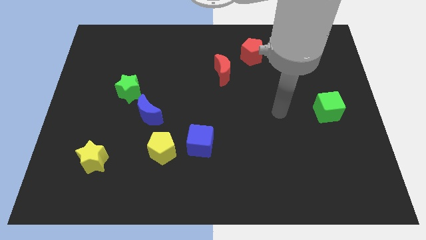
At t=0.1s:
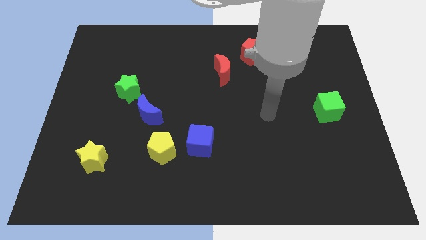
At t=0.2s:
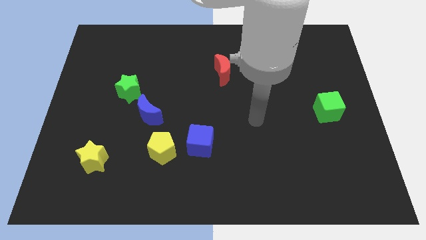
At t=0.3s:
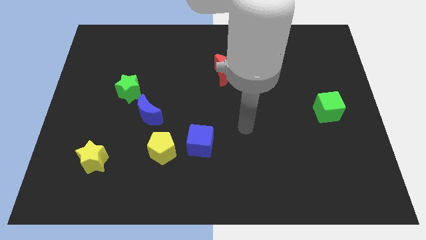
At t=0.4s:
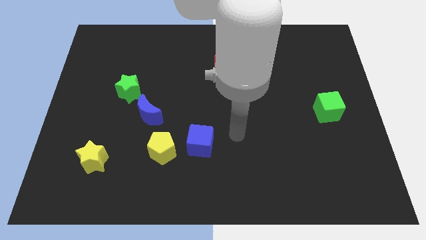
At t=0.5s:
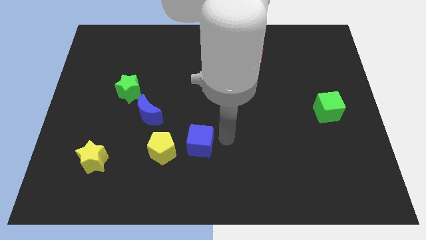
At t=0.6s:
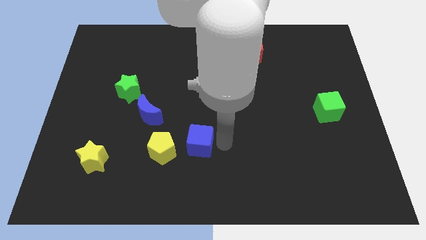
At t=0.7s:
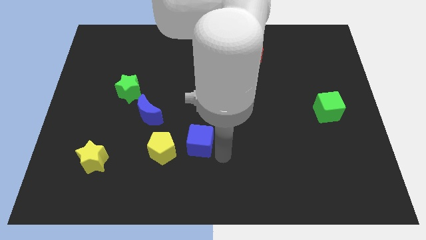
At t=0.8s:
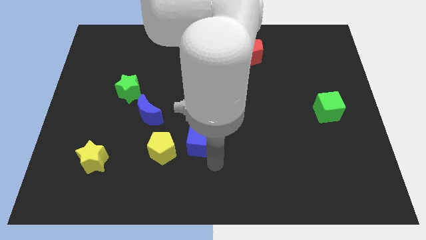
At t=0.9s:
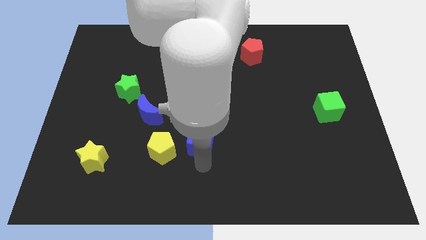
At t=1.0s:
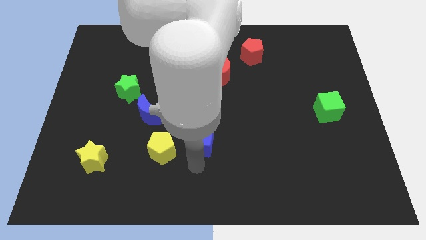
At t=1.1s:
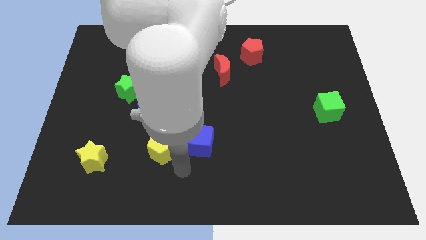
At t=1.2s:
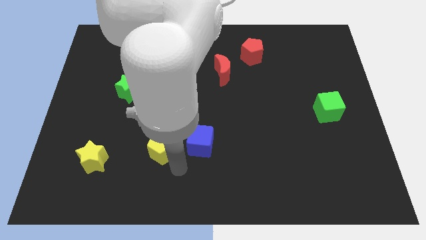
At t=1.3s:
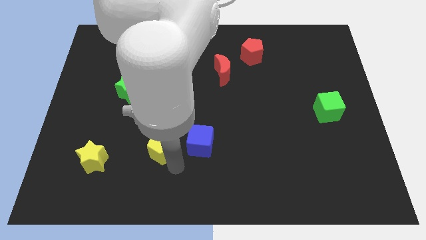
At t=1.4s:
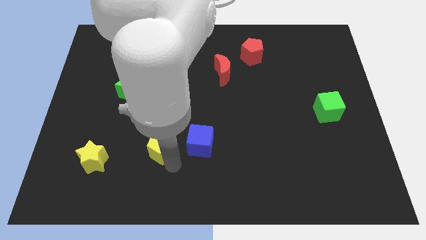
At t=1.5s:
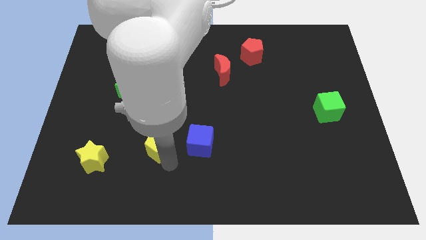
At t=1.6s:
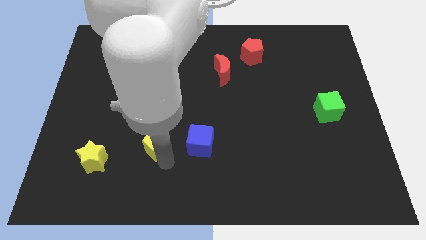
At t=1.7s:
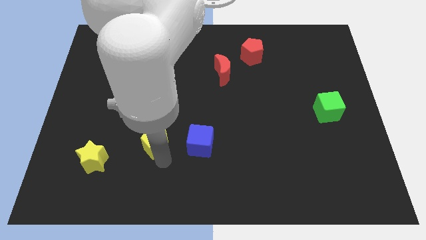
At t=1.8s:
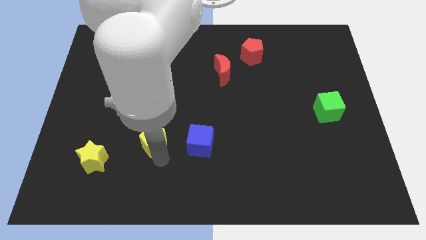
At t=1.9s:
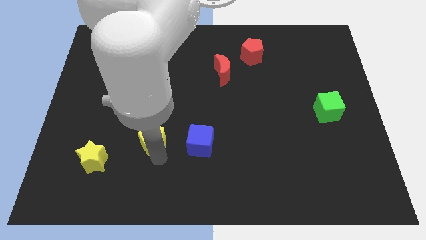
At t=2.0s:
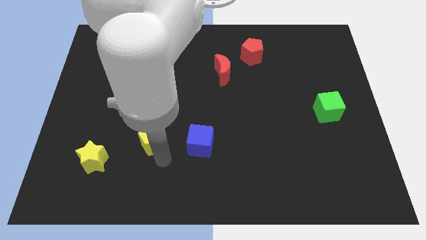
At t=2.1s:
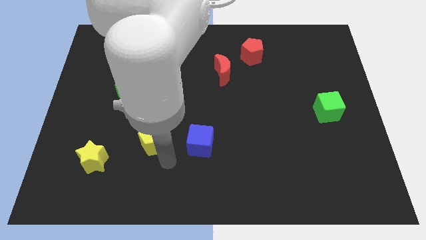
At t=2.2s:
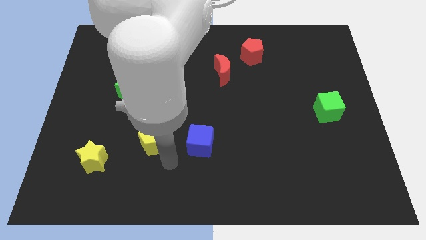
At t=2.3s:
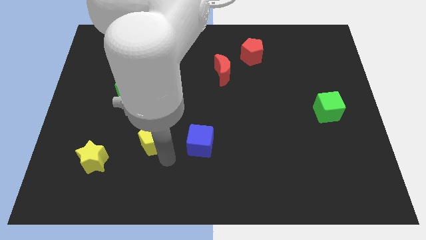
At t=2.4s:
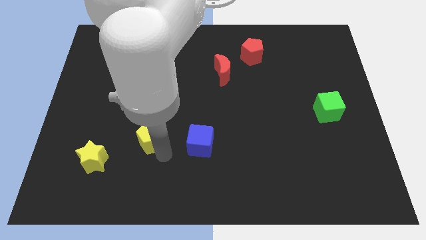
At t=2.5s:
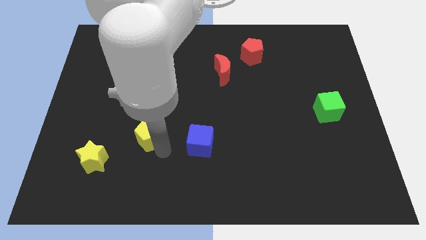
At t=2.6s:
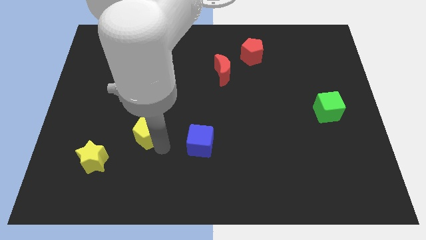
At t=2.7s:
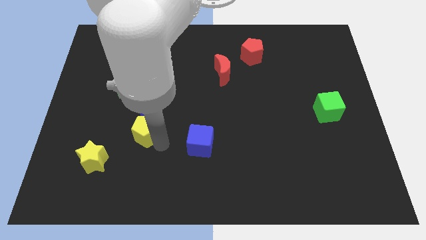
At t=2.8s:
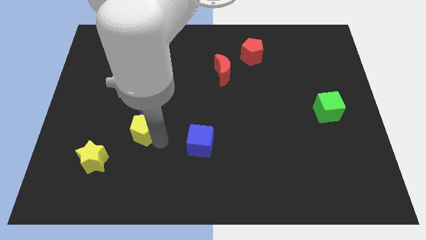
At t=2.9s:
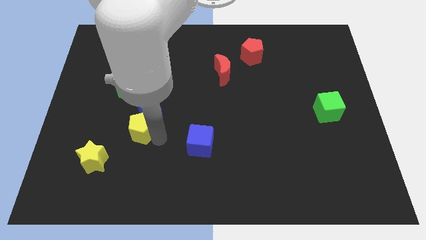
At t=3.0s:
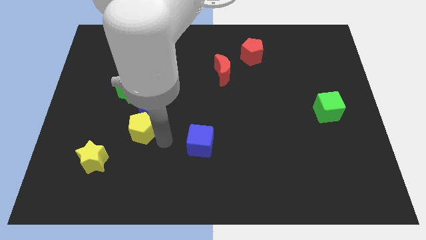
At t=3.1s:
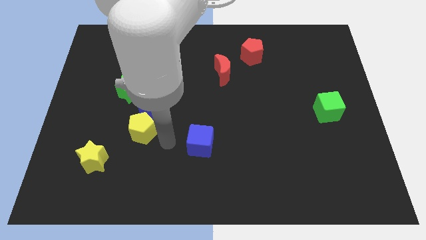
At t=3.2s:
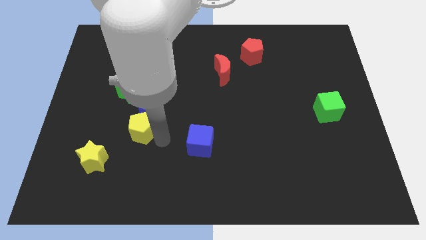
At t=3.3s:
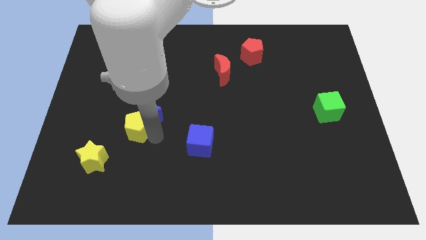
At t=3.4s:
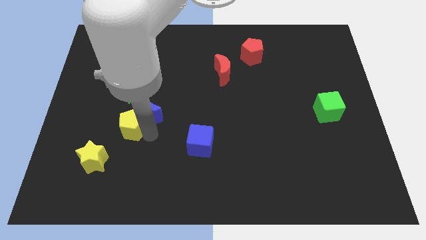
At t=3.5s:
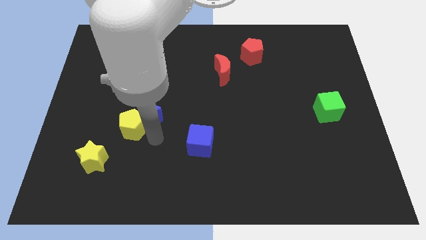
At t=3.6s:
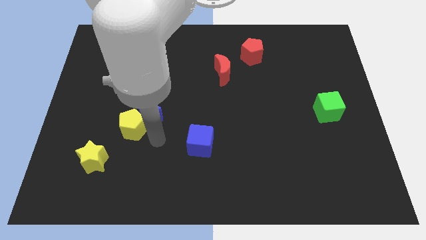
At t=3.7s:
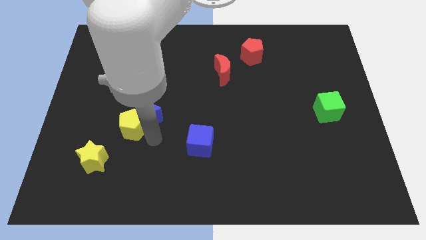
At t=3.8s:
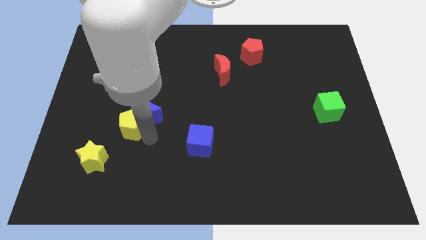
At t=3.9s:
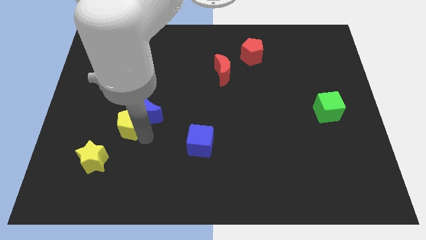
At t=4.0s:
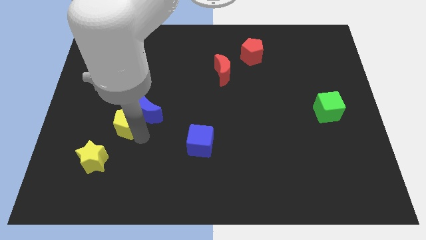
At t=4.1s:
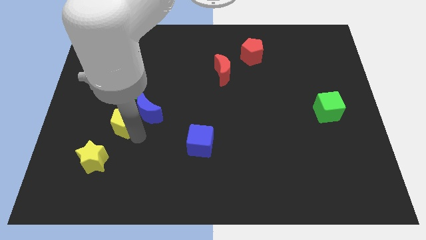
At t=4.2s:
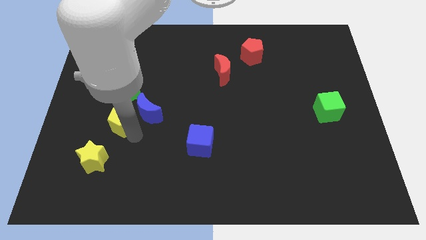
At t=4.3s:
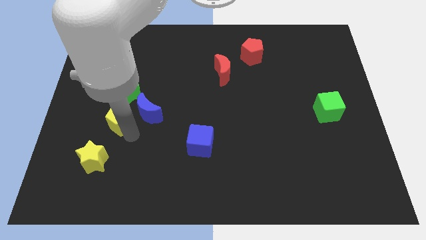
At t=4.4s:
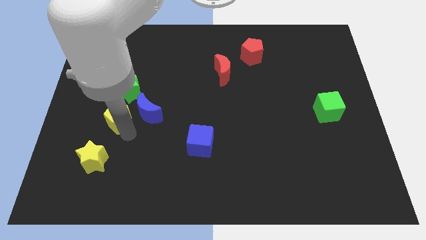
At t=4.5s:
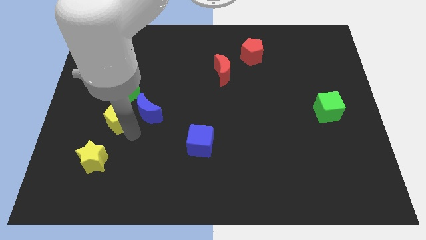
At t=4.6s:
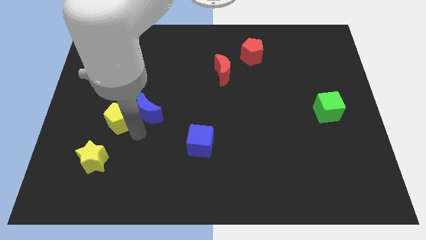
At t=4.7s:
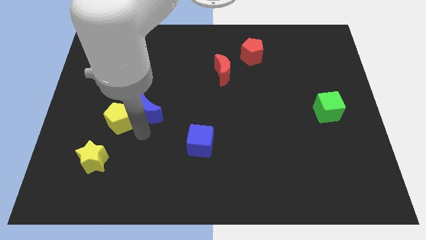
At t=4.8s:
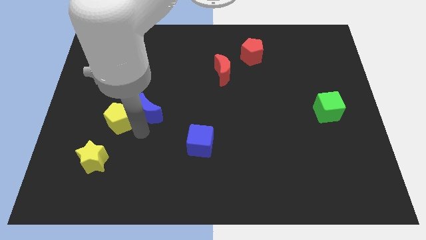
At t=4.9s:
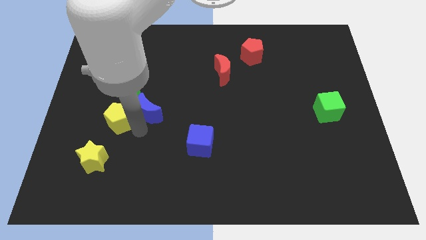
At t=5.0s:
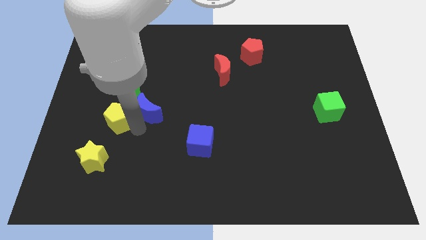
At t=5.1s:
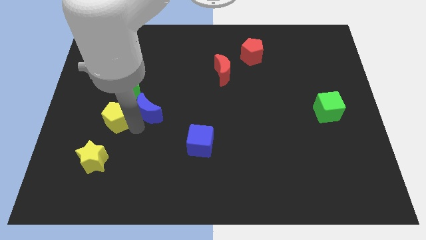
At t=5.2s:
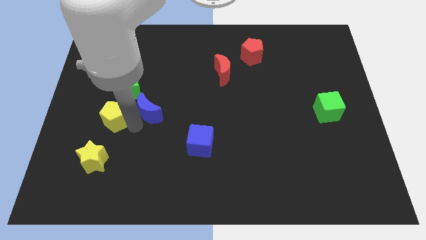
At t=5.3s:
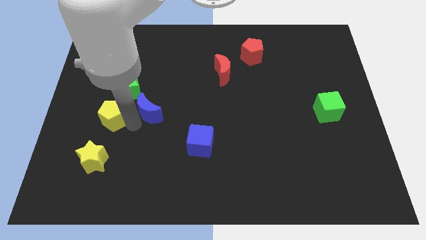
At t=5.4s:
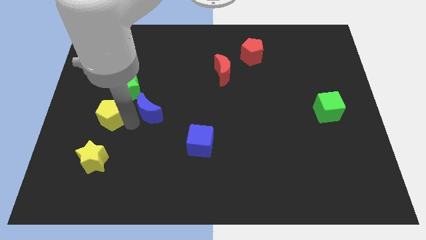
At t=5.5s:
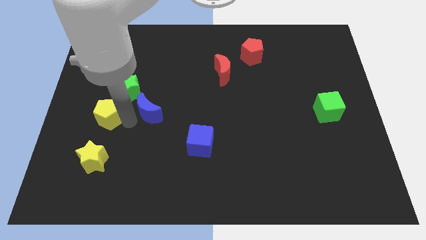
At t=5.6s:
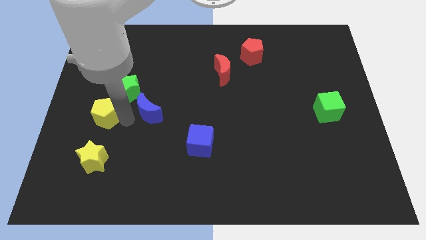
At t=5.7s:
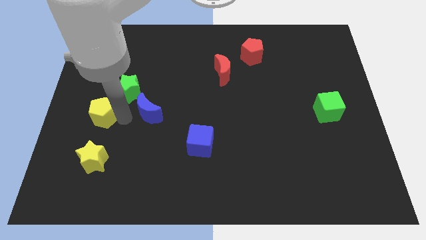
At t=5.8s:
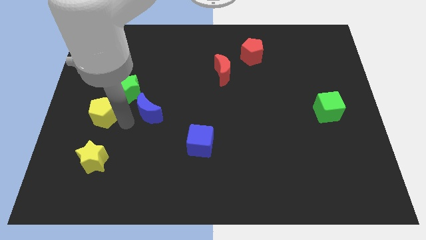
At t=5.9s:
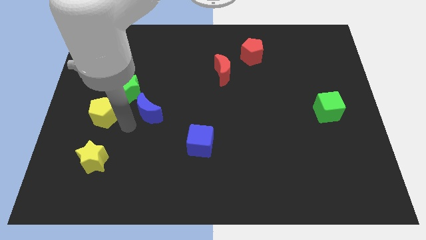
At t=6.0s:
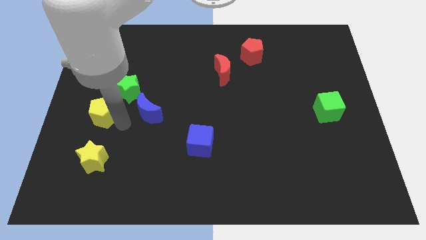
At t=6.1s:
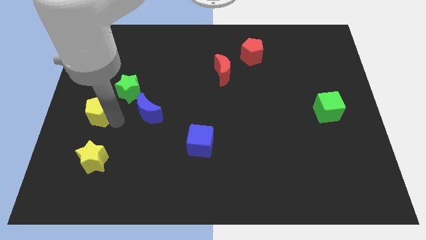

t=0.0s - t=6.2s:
move the yellow pentagon to the left side

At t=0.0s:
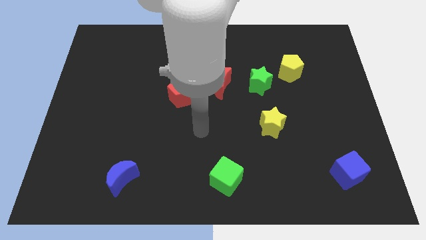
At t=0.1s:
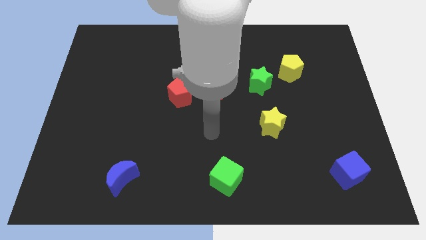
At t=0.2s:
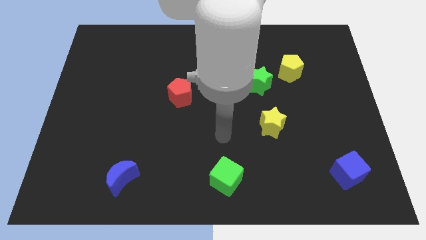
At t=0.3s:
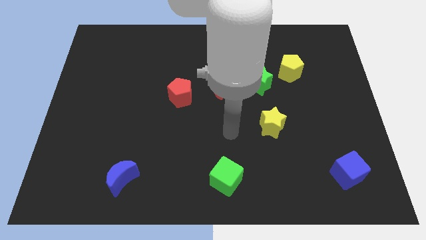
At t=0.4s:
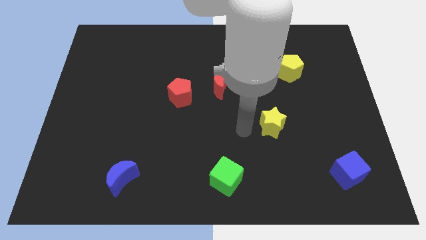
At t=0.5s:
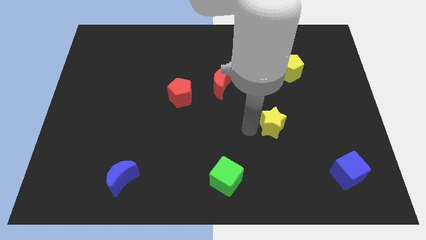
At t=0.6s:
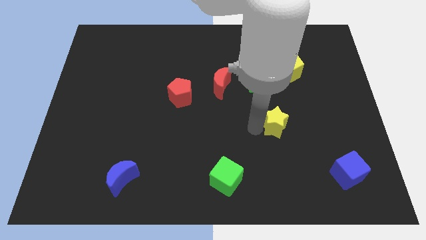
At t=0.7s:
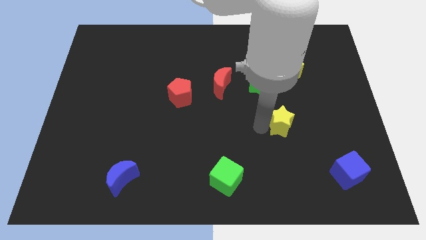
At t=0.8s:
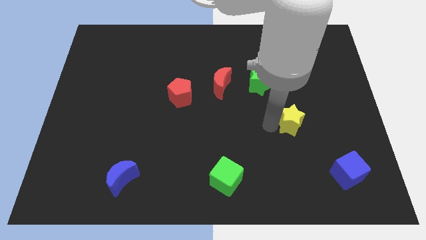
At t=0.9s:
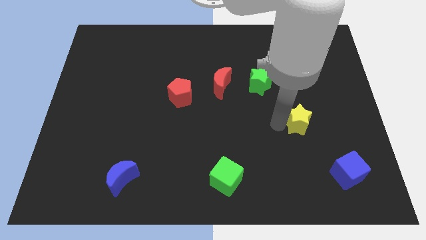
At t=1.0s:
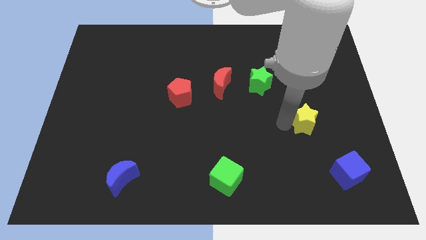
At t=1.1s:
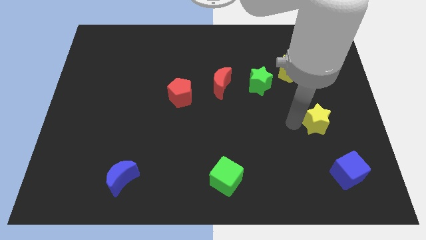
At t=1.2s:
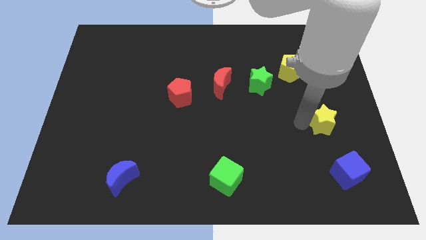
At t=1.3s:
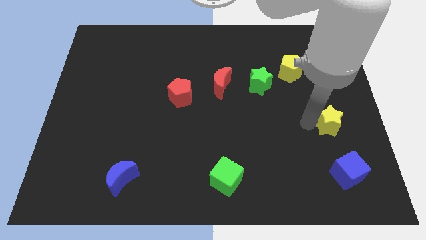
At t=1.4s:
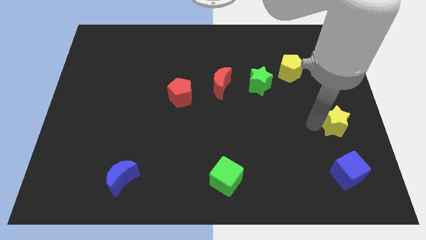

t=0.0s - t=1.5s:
push the yellow star to the right side
